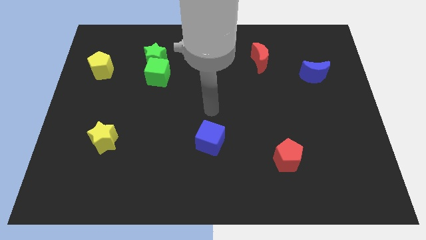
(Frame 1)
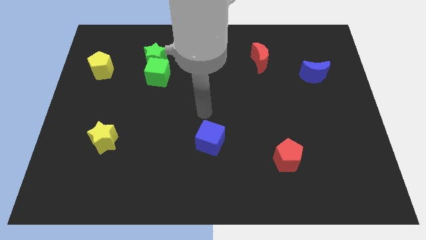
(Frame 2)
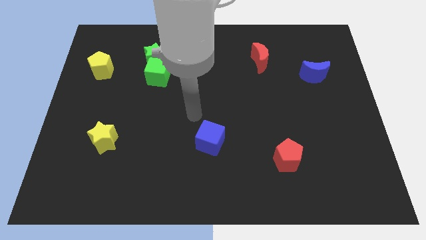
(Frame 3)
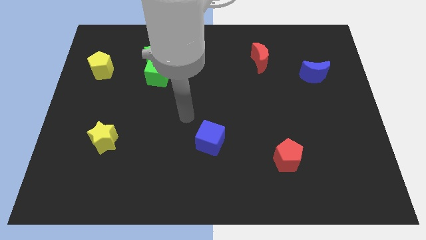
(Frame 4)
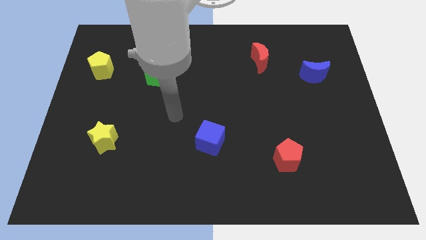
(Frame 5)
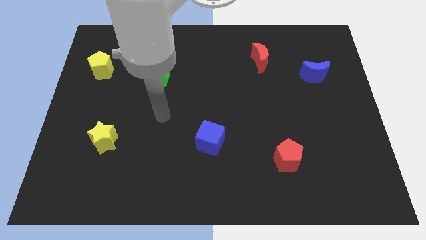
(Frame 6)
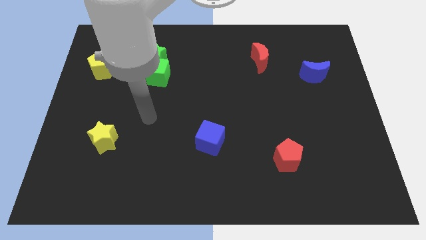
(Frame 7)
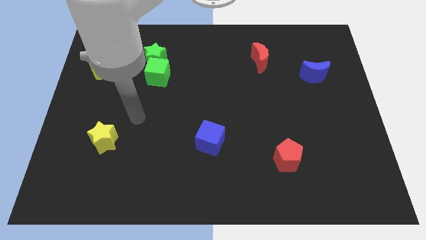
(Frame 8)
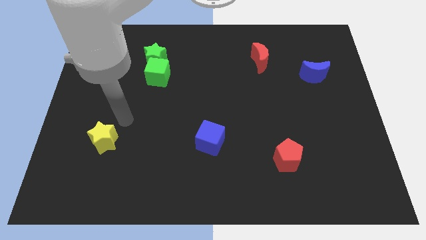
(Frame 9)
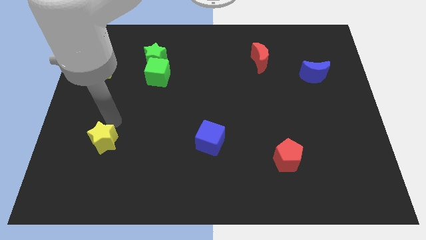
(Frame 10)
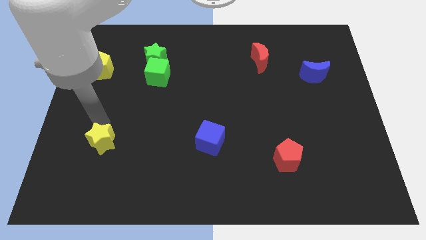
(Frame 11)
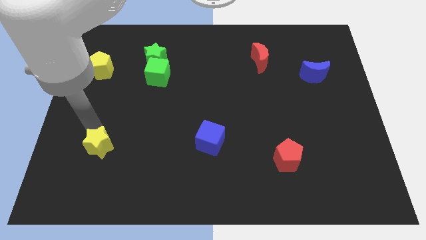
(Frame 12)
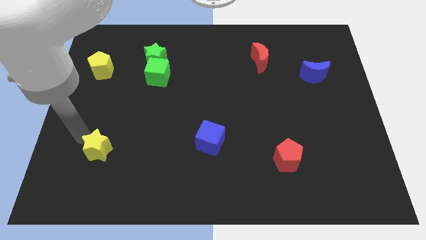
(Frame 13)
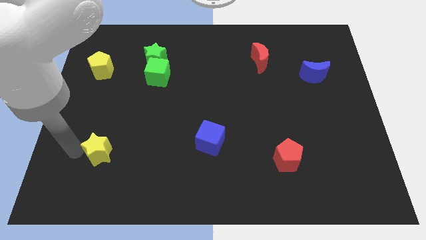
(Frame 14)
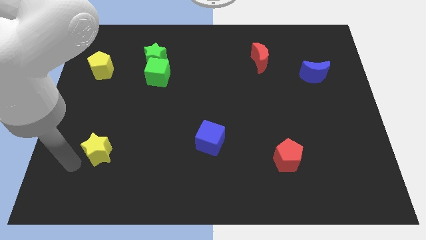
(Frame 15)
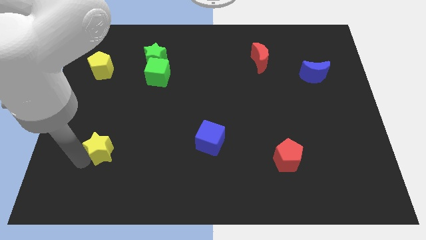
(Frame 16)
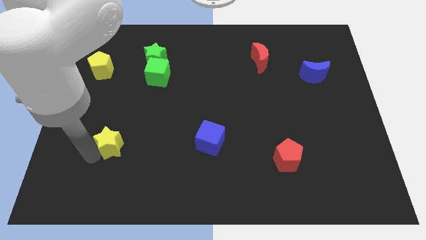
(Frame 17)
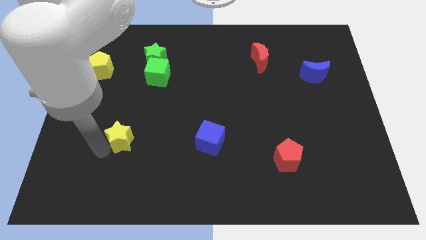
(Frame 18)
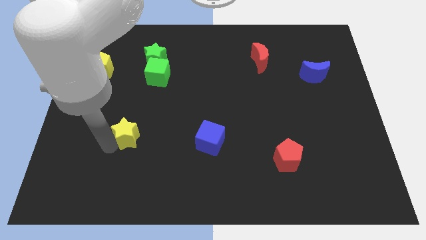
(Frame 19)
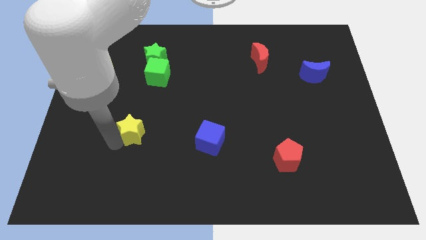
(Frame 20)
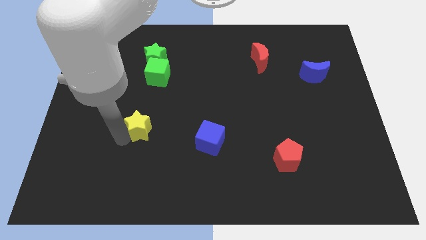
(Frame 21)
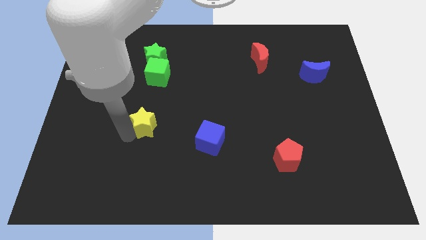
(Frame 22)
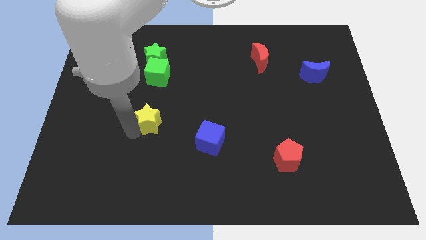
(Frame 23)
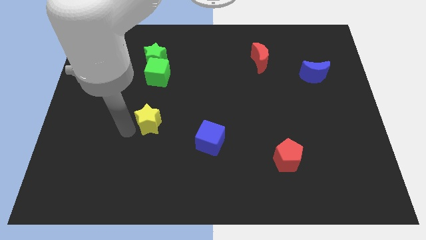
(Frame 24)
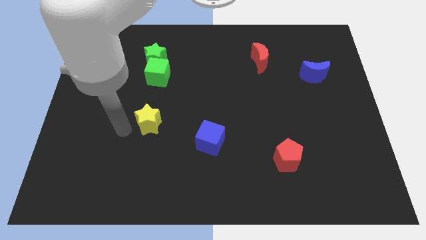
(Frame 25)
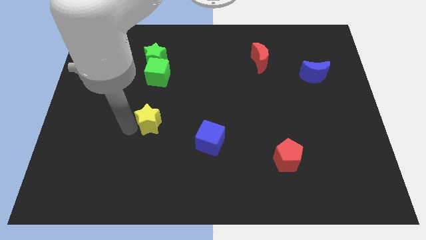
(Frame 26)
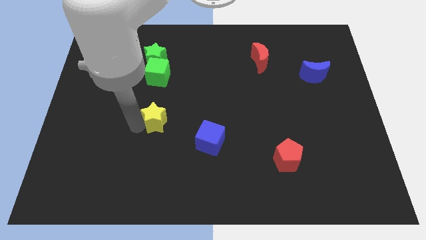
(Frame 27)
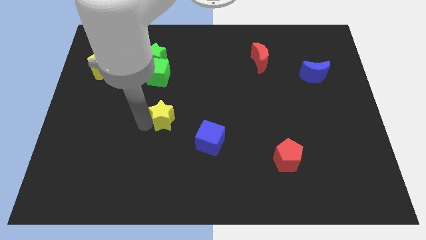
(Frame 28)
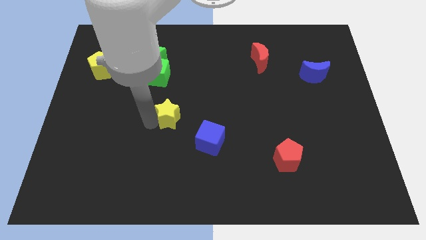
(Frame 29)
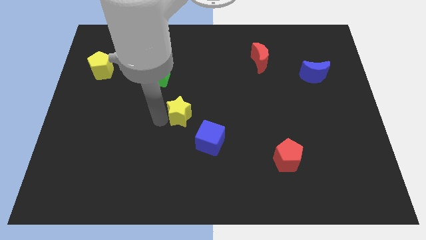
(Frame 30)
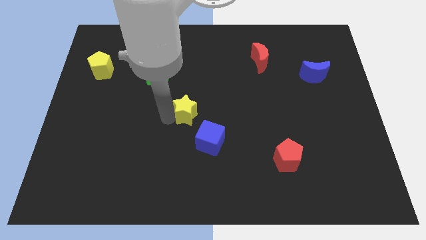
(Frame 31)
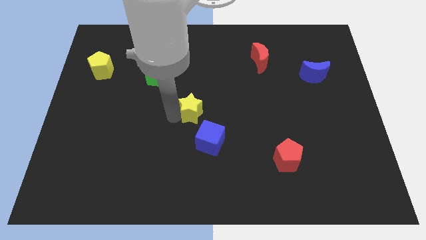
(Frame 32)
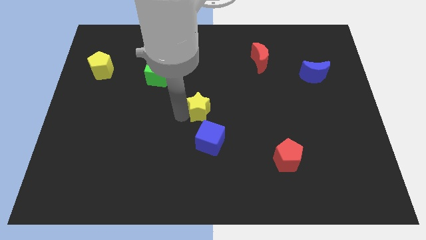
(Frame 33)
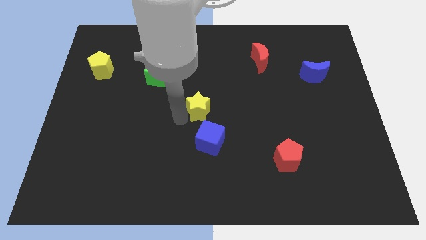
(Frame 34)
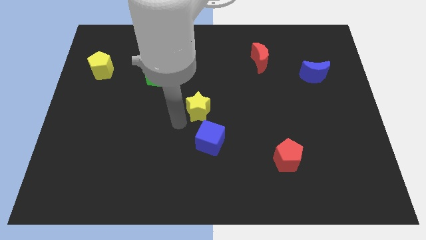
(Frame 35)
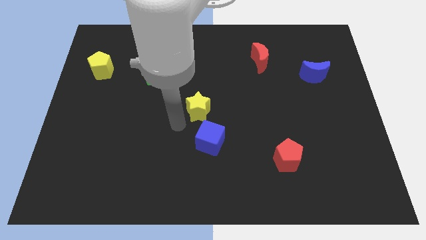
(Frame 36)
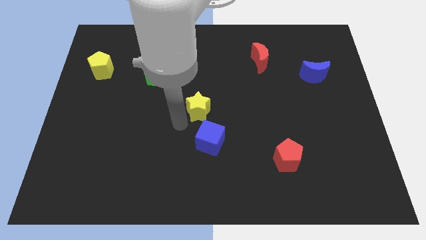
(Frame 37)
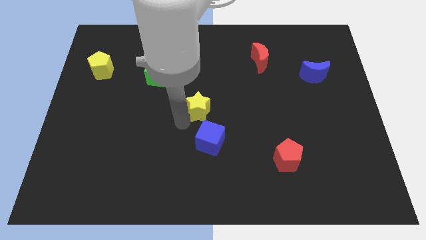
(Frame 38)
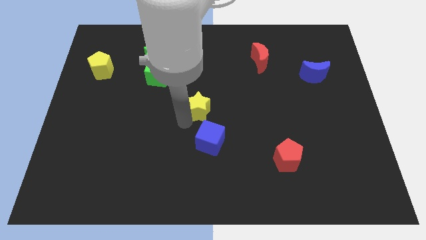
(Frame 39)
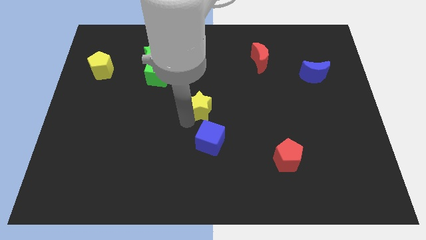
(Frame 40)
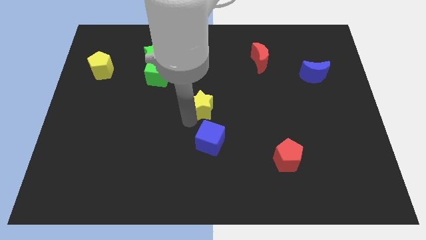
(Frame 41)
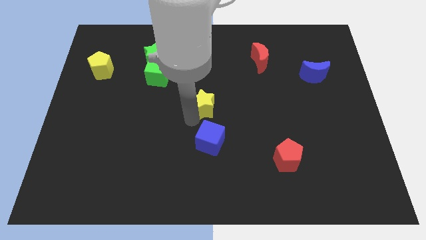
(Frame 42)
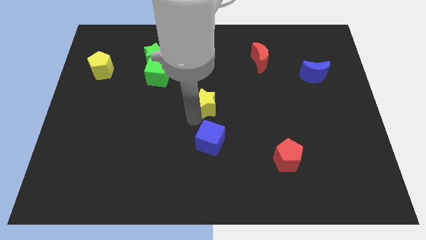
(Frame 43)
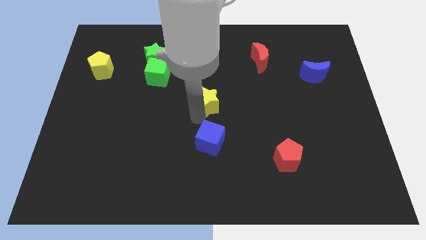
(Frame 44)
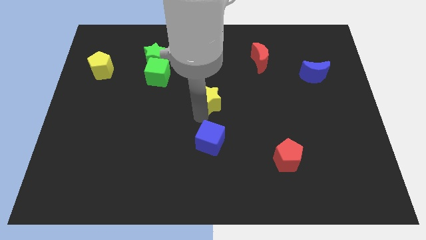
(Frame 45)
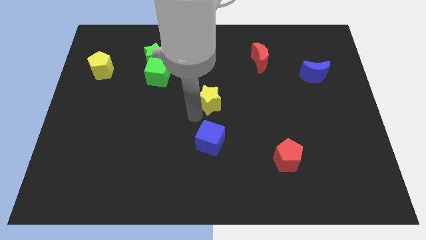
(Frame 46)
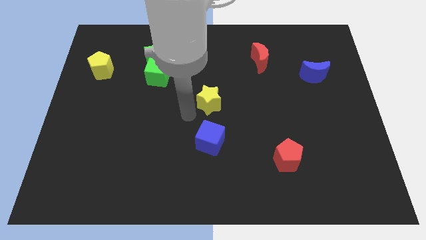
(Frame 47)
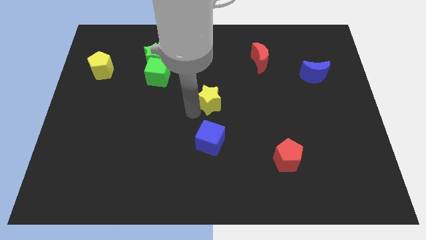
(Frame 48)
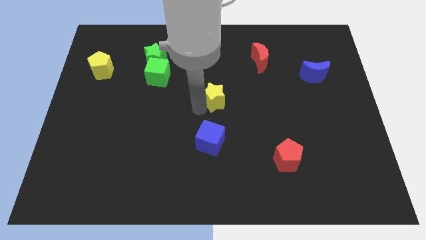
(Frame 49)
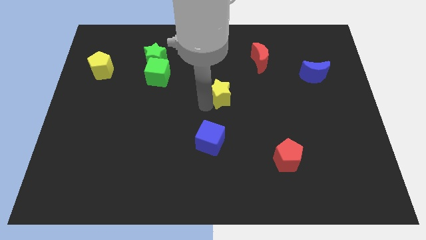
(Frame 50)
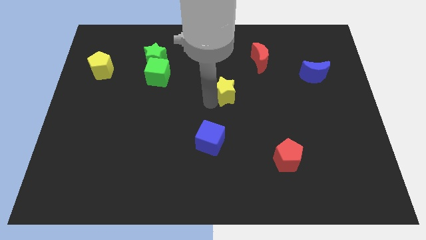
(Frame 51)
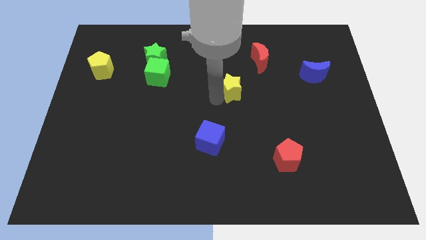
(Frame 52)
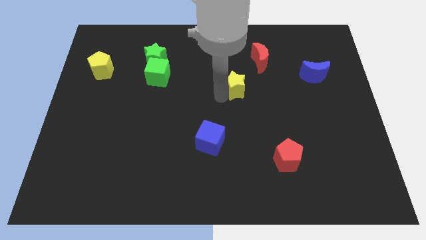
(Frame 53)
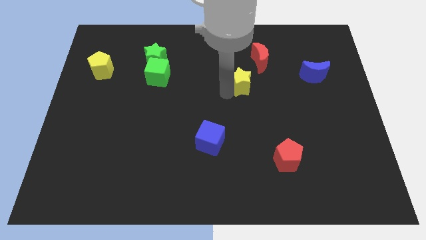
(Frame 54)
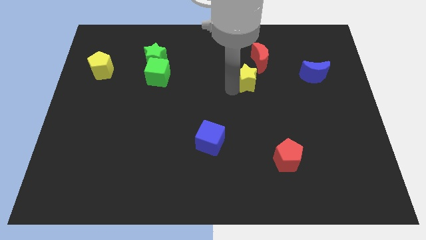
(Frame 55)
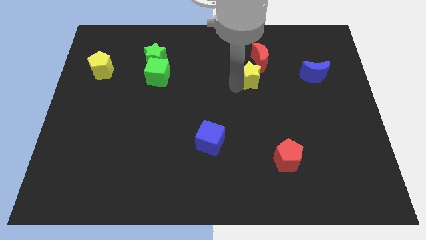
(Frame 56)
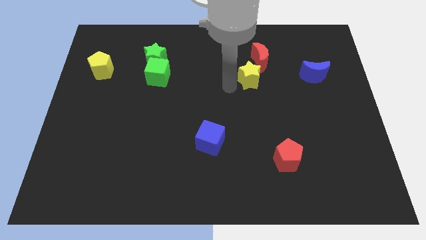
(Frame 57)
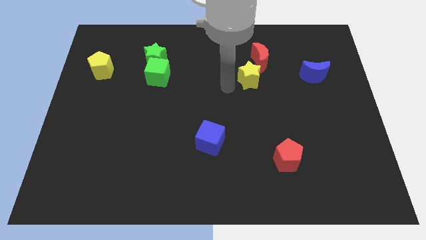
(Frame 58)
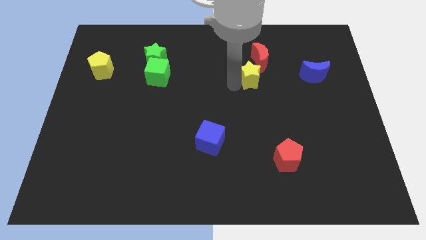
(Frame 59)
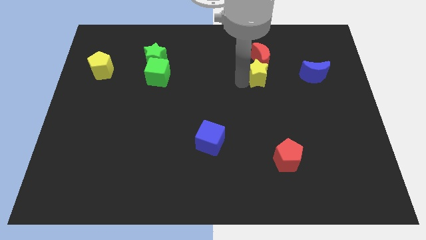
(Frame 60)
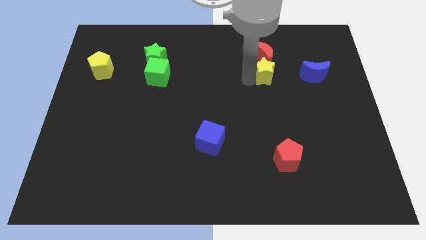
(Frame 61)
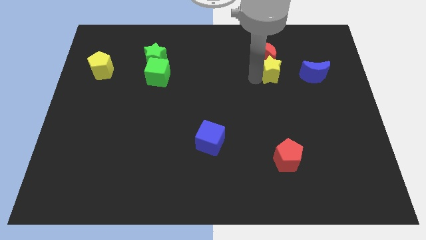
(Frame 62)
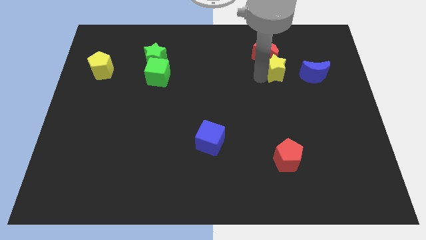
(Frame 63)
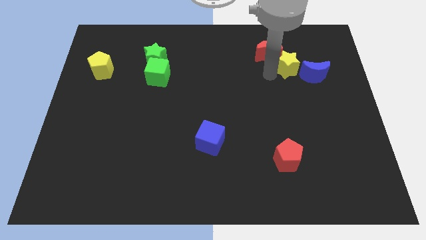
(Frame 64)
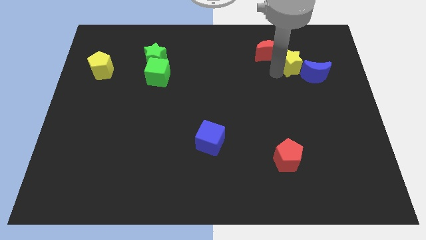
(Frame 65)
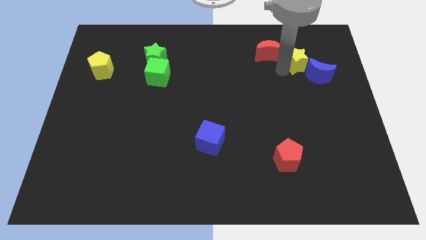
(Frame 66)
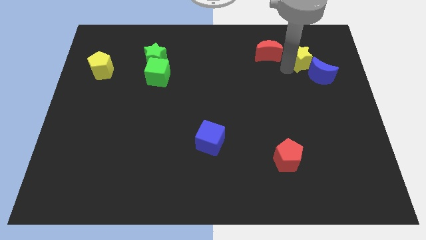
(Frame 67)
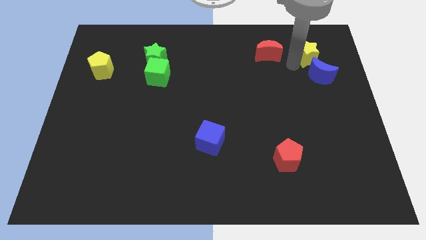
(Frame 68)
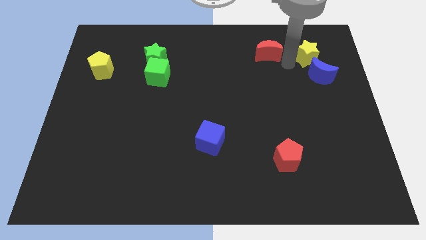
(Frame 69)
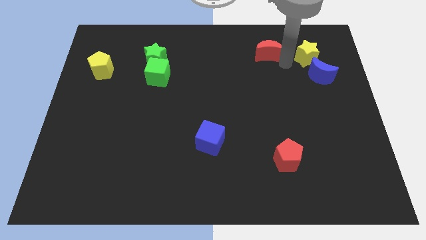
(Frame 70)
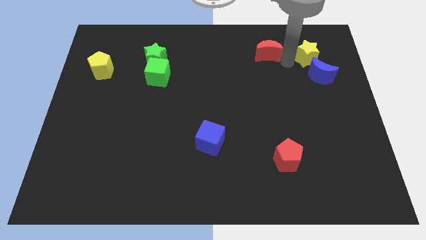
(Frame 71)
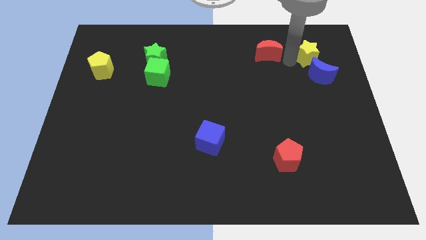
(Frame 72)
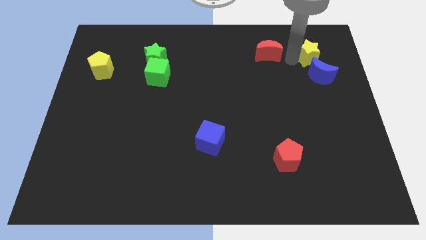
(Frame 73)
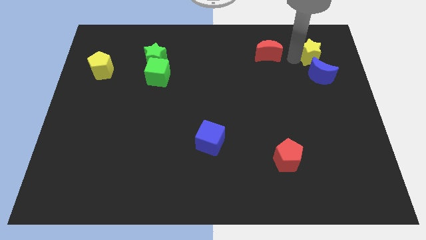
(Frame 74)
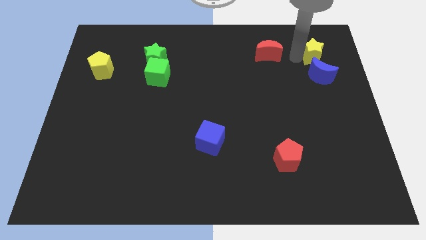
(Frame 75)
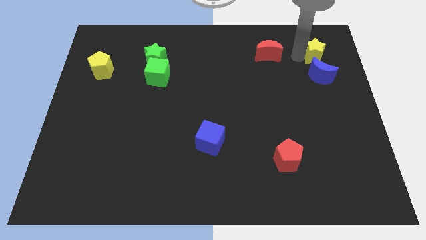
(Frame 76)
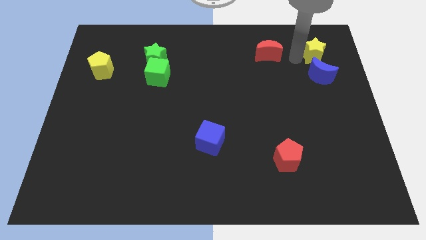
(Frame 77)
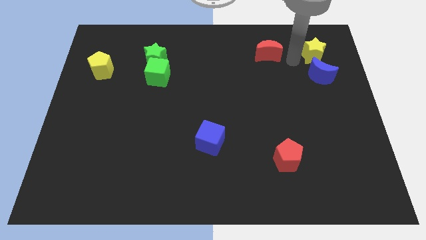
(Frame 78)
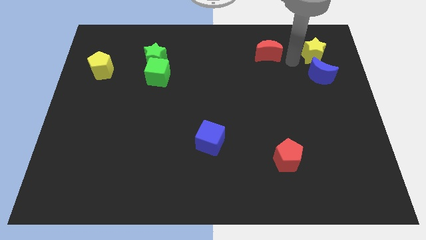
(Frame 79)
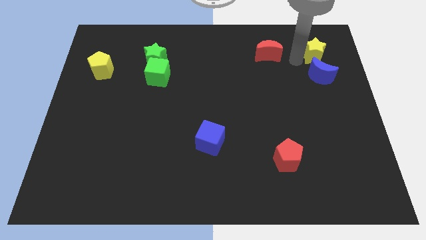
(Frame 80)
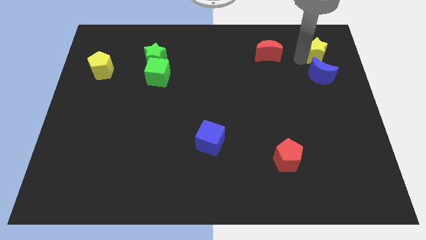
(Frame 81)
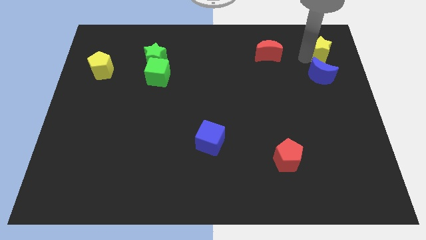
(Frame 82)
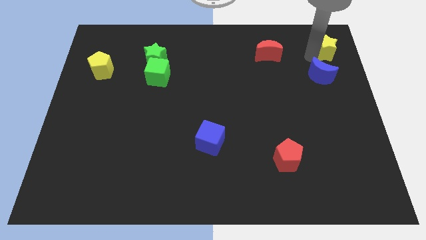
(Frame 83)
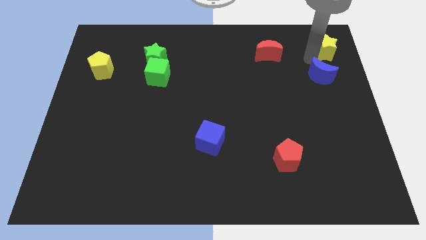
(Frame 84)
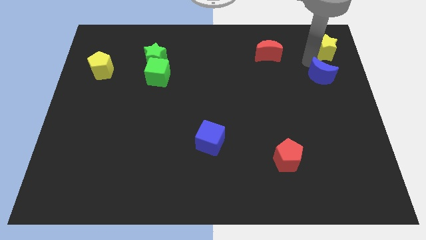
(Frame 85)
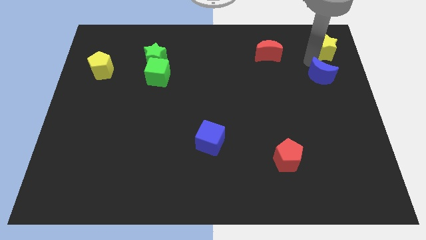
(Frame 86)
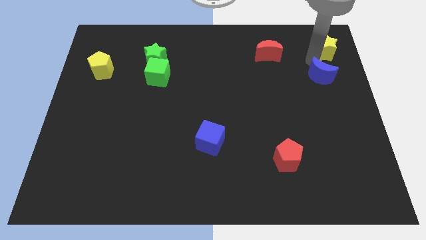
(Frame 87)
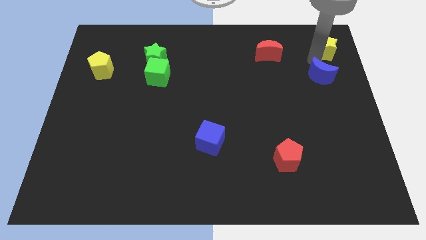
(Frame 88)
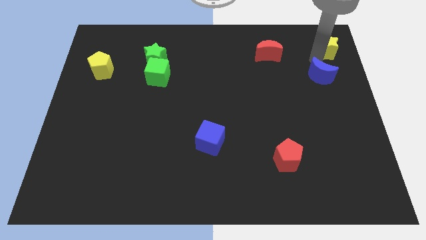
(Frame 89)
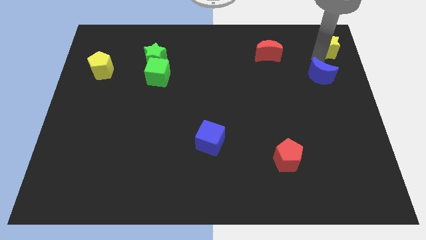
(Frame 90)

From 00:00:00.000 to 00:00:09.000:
push the yellow star to the top right of the board
